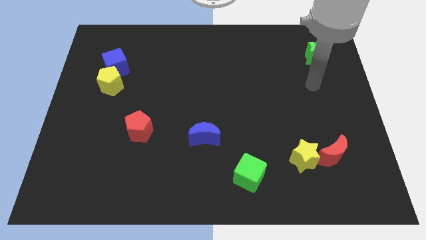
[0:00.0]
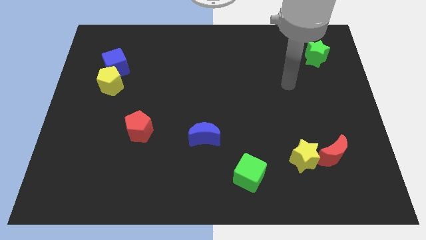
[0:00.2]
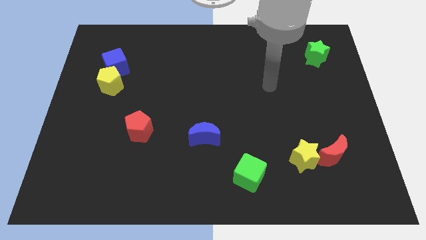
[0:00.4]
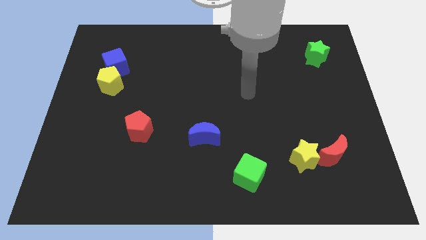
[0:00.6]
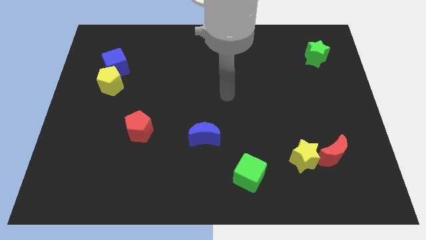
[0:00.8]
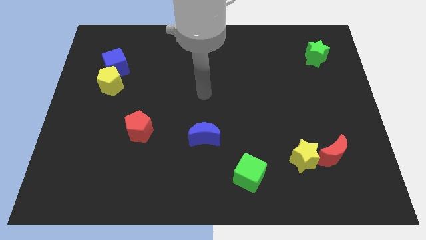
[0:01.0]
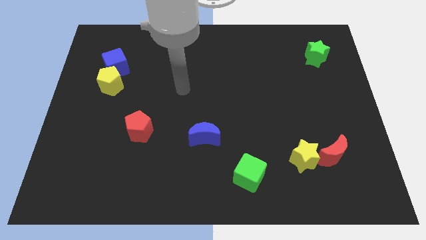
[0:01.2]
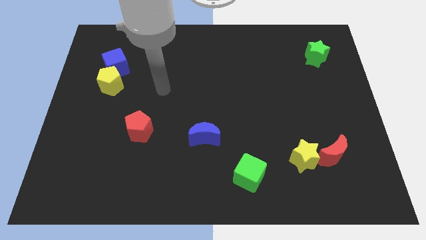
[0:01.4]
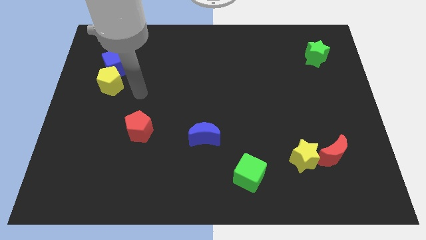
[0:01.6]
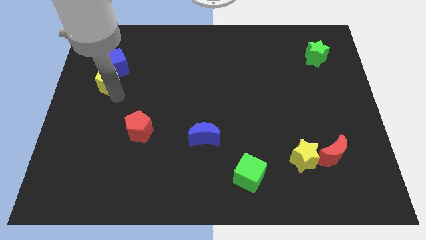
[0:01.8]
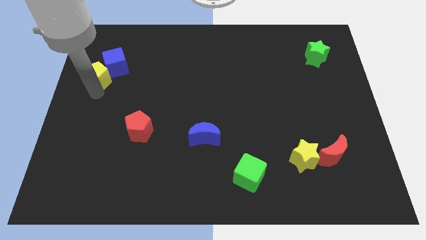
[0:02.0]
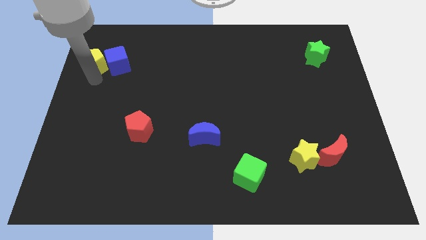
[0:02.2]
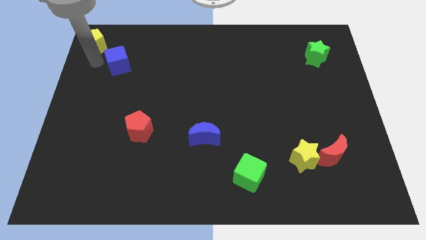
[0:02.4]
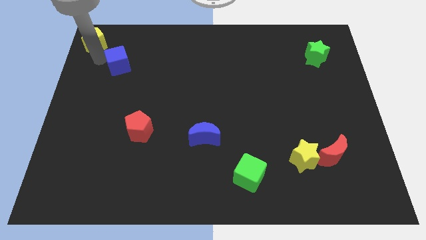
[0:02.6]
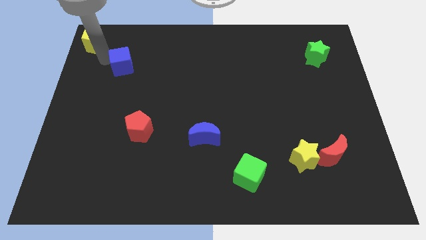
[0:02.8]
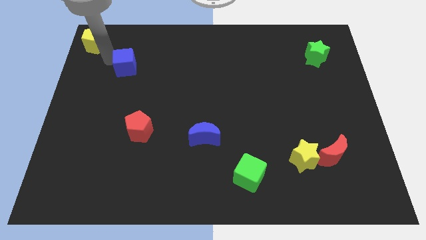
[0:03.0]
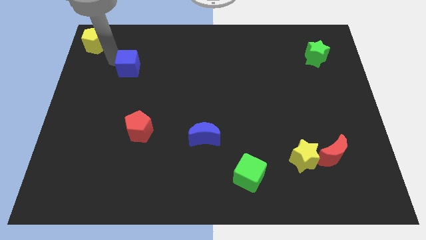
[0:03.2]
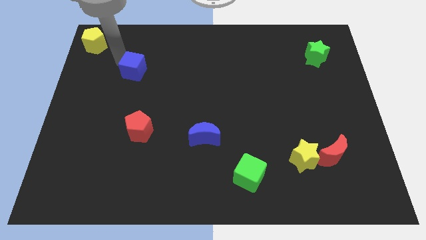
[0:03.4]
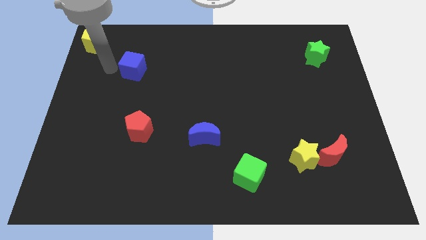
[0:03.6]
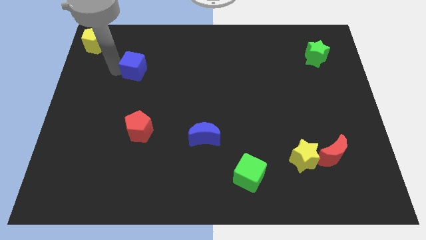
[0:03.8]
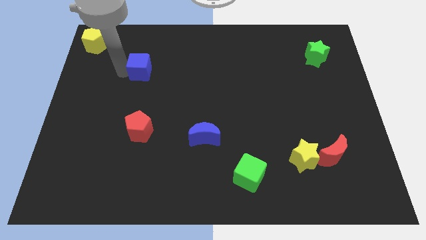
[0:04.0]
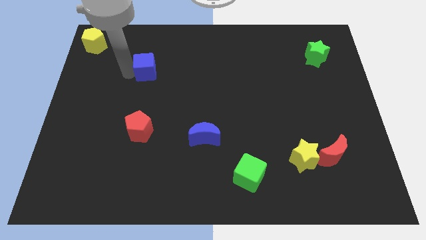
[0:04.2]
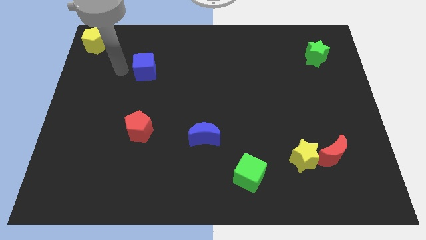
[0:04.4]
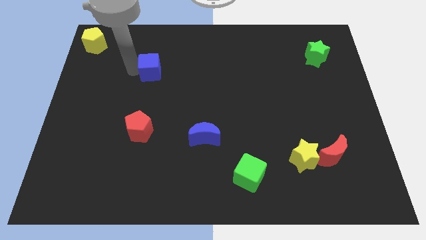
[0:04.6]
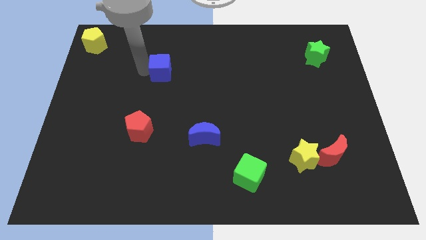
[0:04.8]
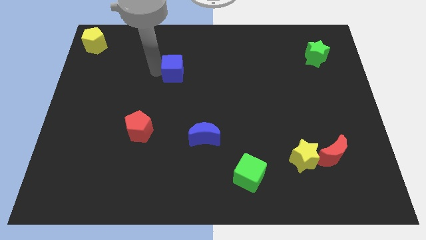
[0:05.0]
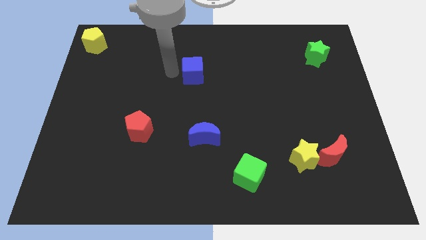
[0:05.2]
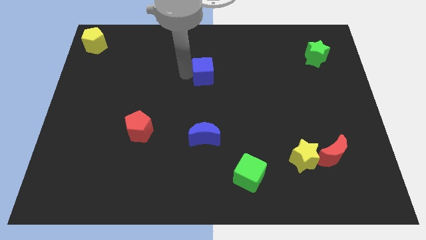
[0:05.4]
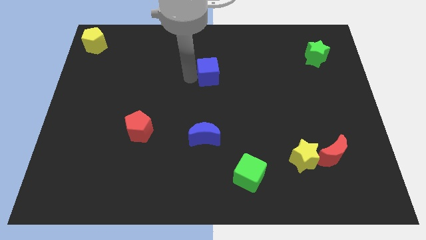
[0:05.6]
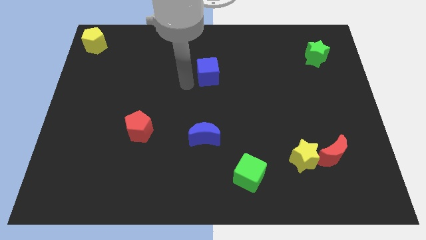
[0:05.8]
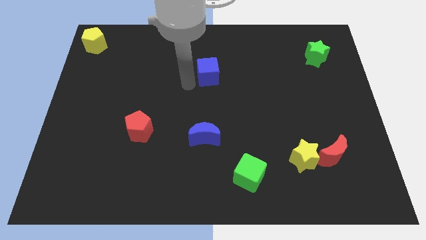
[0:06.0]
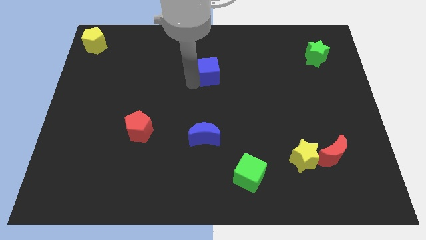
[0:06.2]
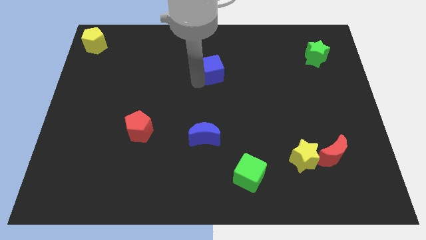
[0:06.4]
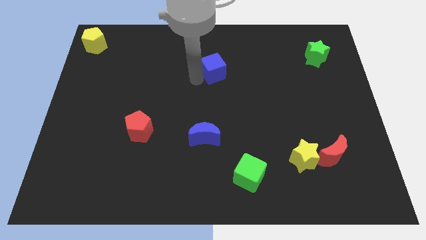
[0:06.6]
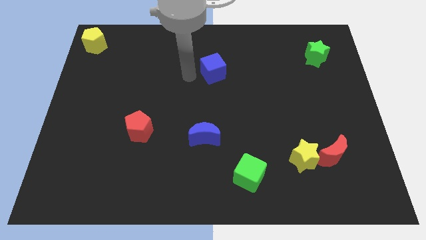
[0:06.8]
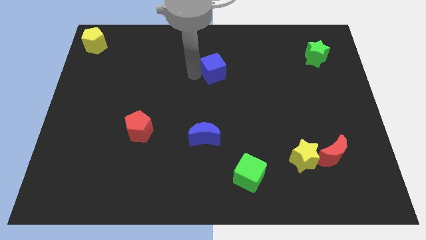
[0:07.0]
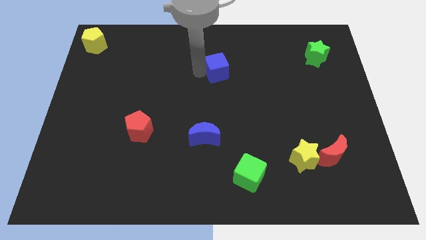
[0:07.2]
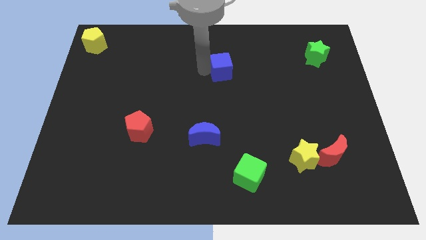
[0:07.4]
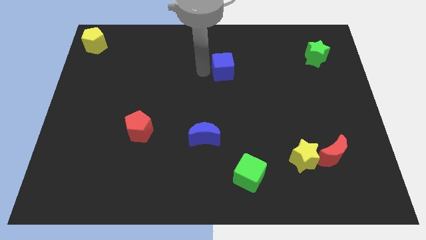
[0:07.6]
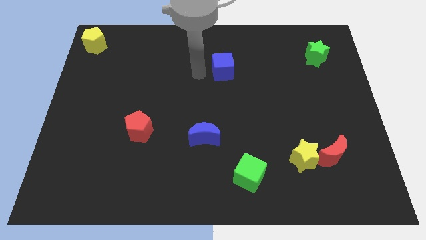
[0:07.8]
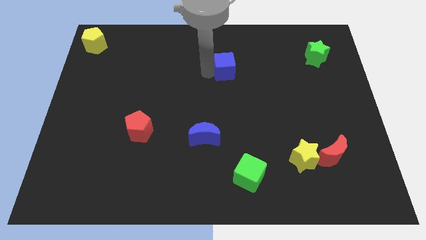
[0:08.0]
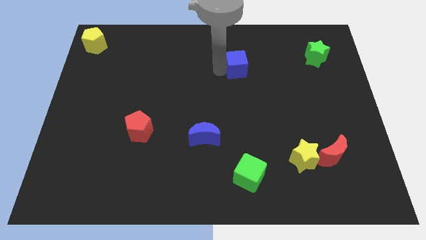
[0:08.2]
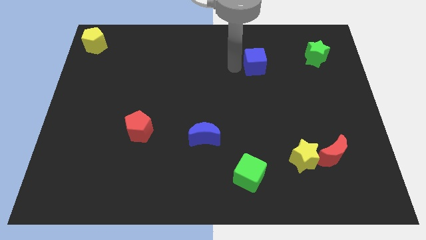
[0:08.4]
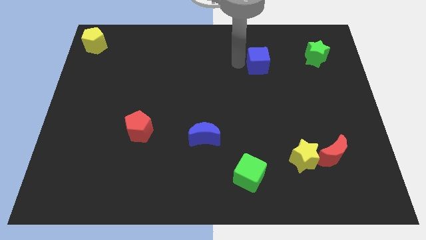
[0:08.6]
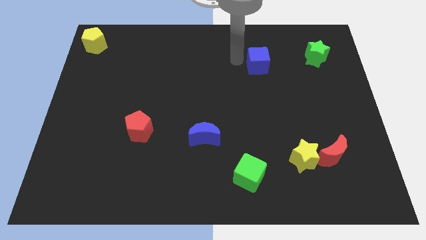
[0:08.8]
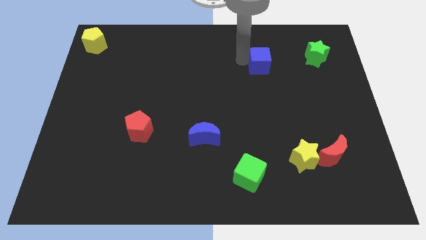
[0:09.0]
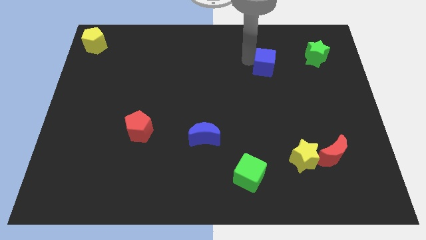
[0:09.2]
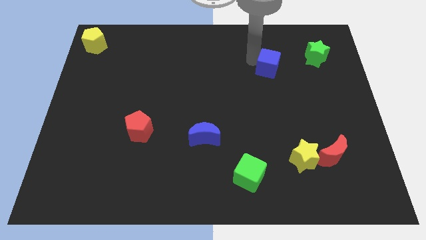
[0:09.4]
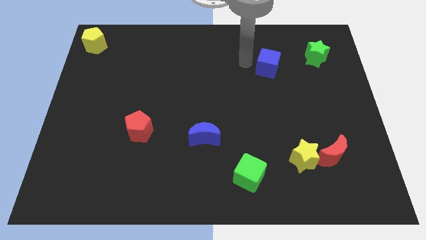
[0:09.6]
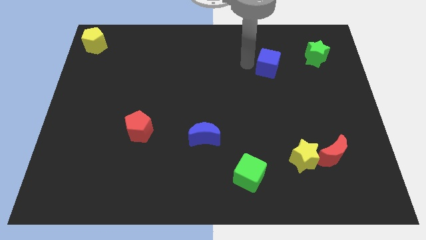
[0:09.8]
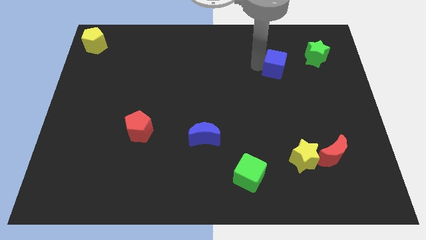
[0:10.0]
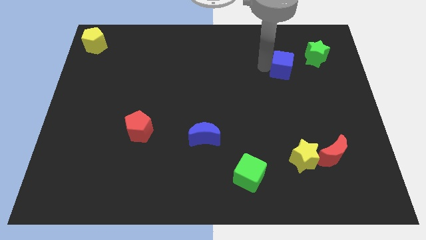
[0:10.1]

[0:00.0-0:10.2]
push the blue cube diagonally down and to the left of the green star

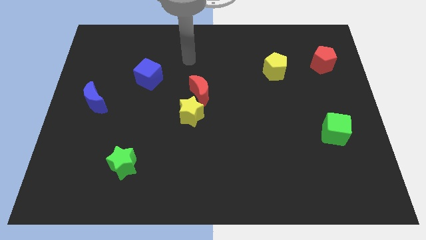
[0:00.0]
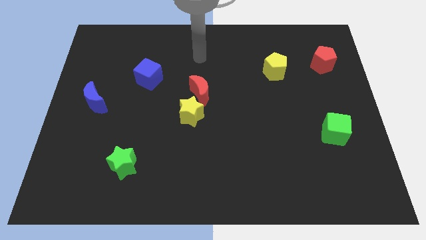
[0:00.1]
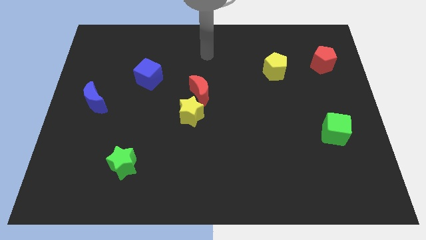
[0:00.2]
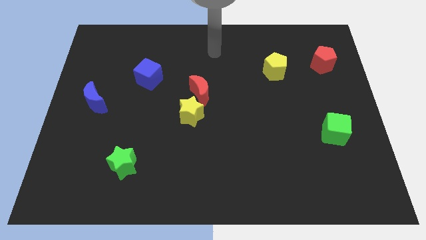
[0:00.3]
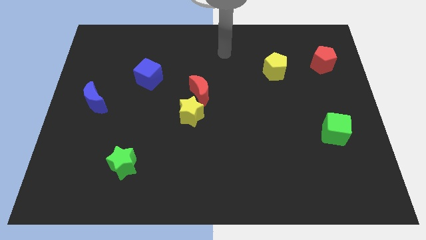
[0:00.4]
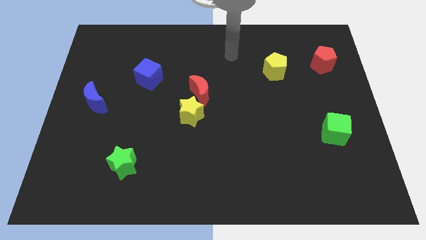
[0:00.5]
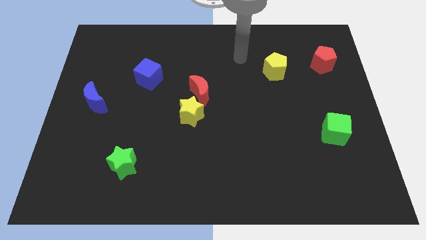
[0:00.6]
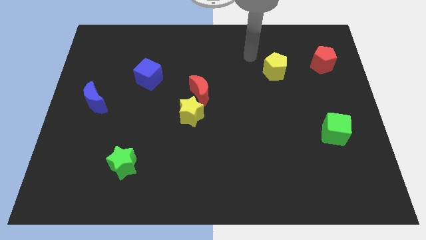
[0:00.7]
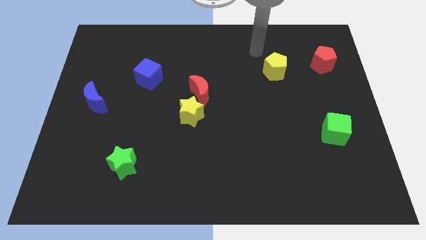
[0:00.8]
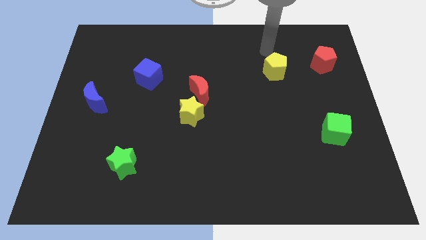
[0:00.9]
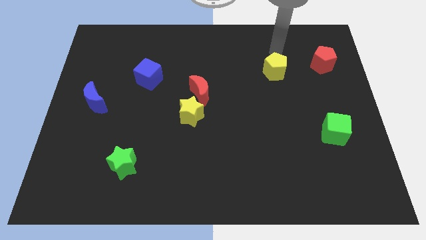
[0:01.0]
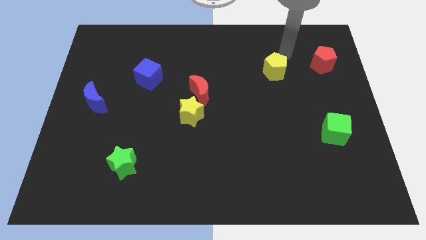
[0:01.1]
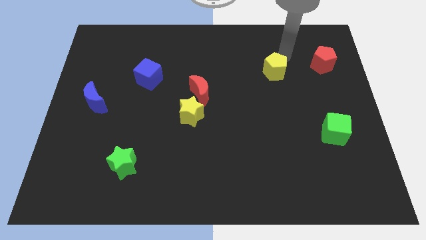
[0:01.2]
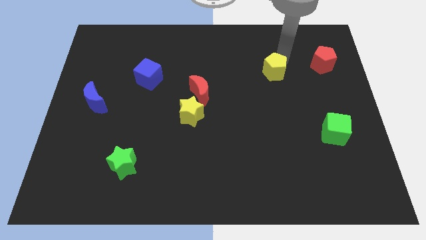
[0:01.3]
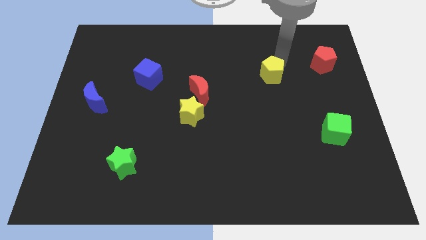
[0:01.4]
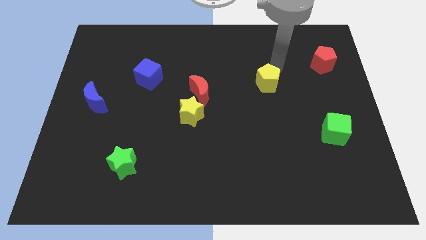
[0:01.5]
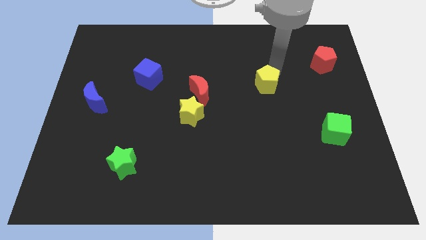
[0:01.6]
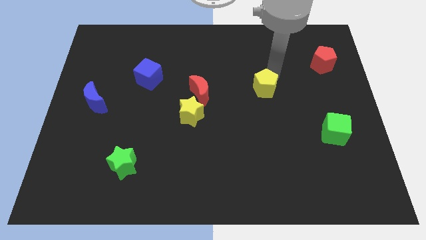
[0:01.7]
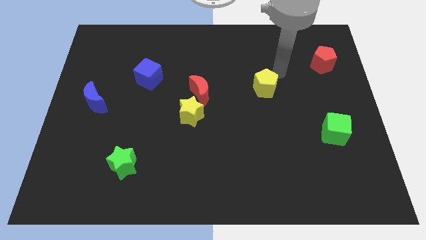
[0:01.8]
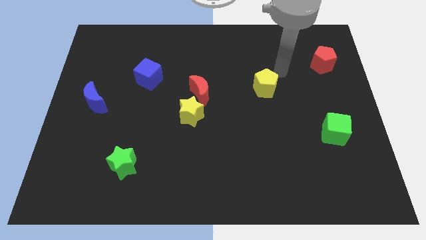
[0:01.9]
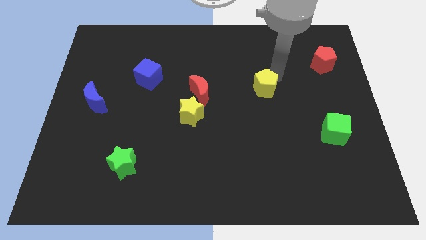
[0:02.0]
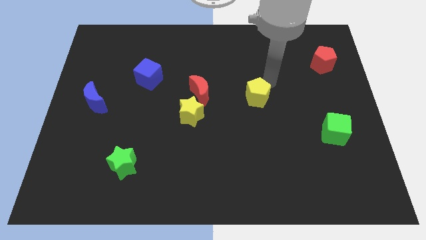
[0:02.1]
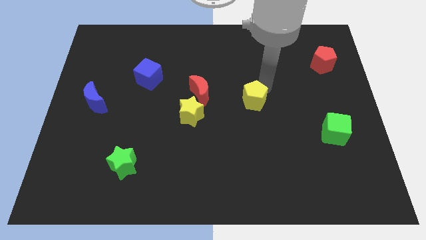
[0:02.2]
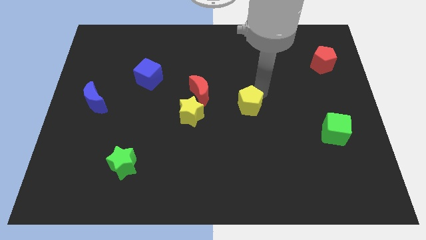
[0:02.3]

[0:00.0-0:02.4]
put the yellow pentagon right of the yellow star
